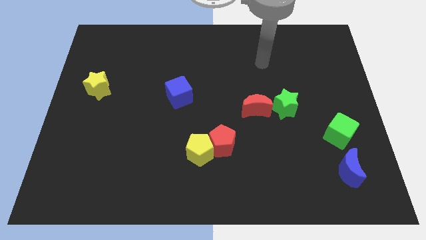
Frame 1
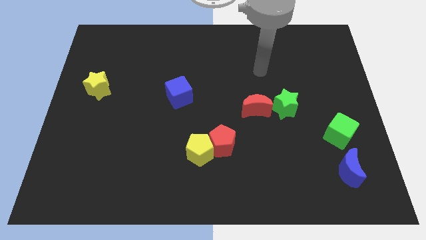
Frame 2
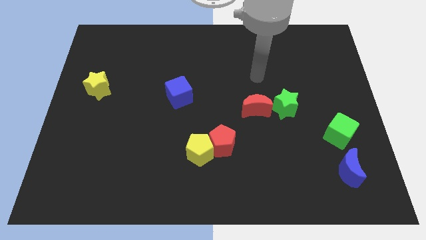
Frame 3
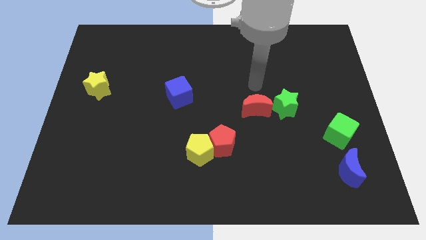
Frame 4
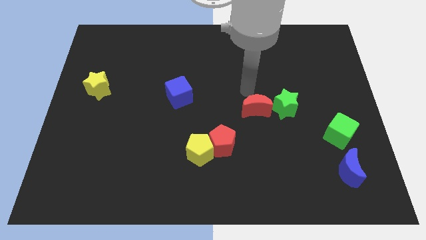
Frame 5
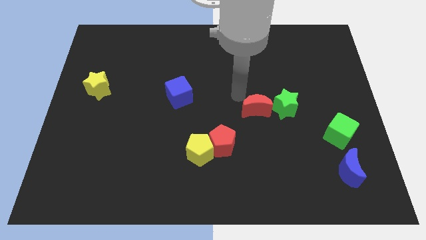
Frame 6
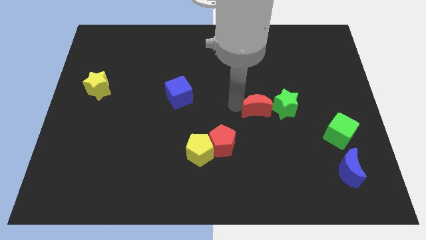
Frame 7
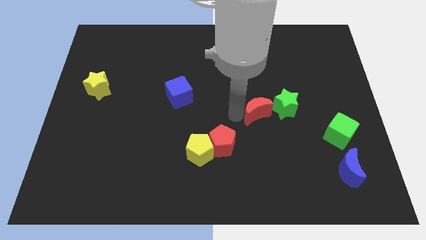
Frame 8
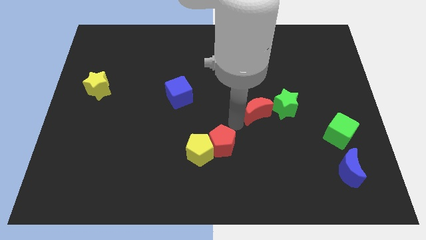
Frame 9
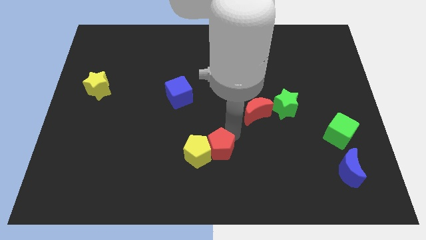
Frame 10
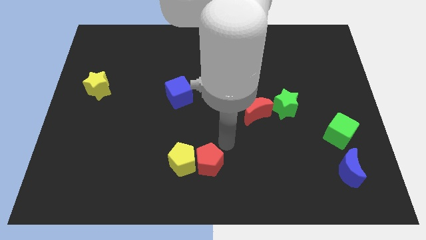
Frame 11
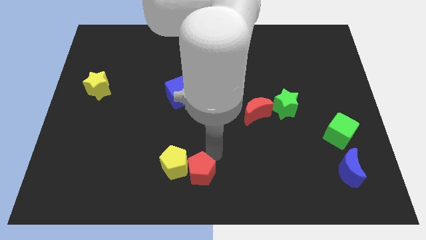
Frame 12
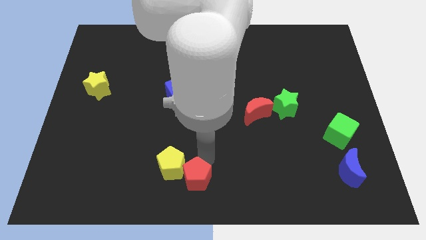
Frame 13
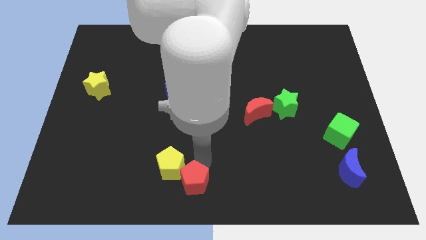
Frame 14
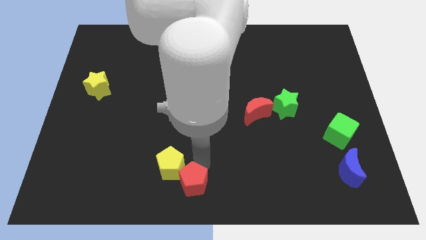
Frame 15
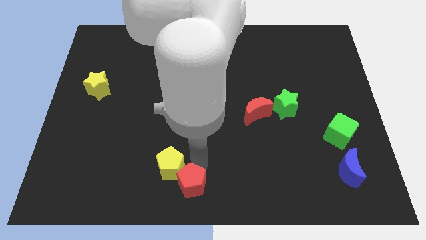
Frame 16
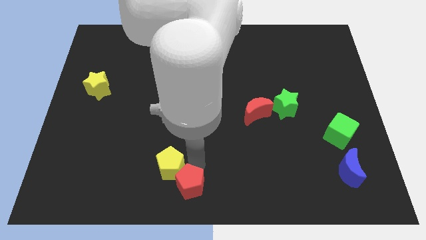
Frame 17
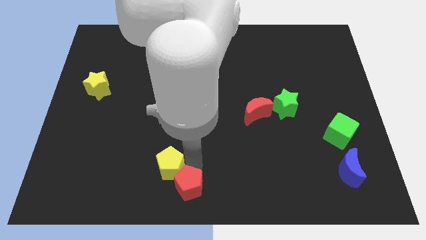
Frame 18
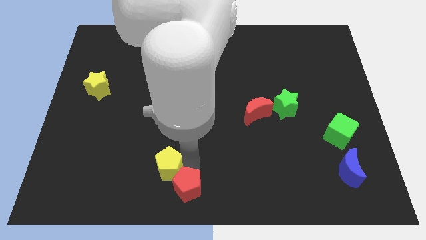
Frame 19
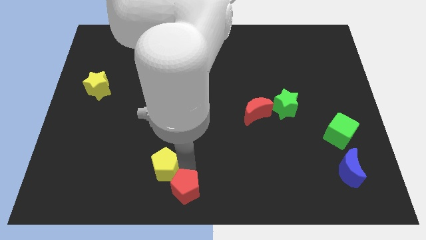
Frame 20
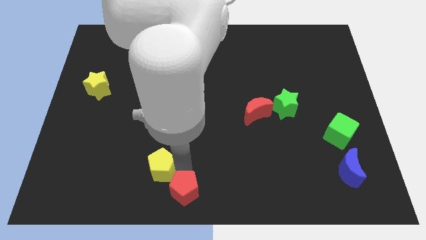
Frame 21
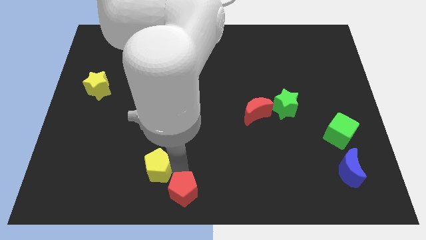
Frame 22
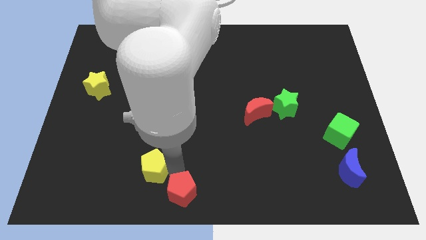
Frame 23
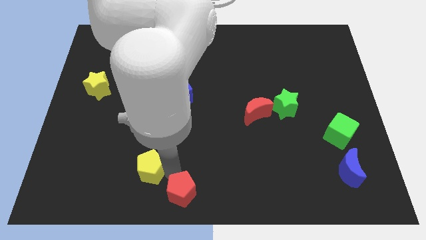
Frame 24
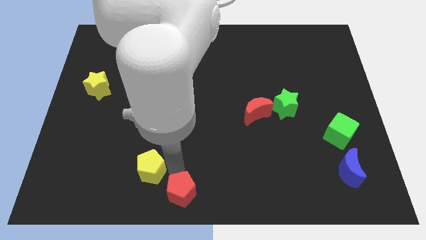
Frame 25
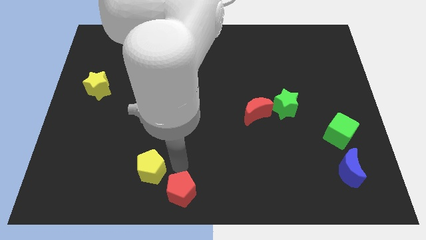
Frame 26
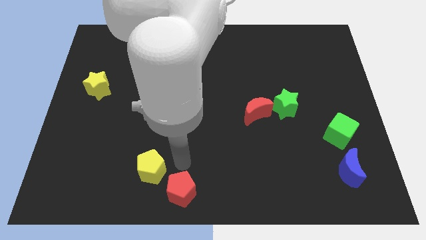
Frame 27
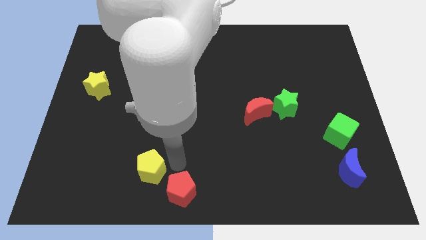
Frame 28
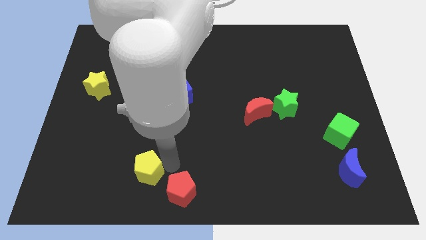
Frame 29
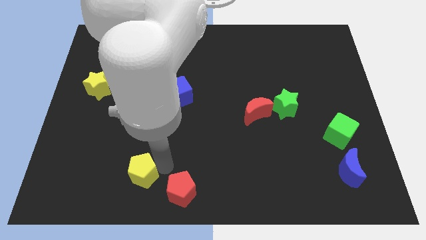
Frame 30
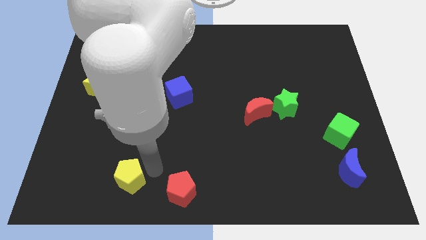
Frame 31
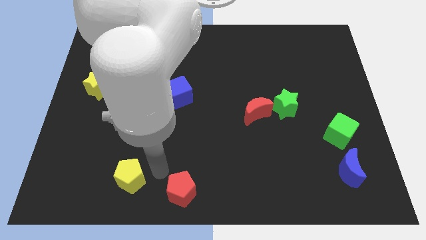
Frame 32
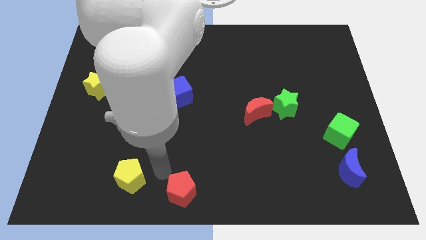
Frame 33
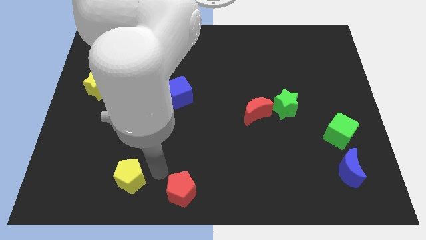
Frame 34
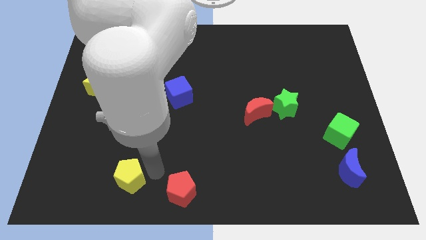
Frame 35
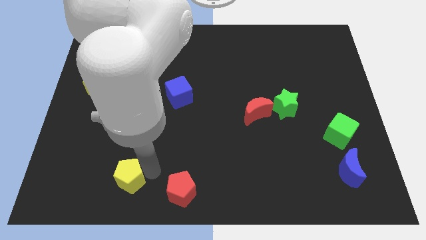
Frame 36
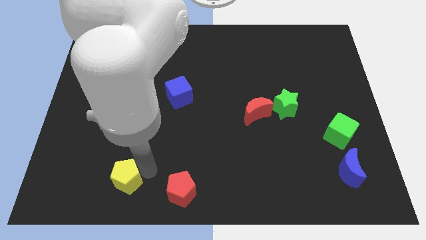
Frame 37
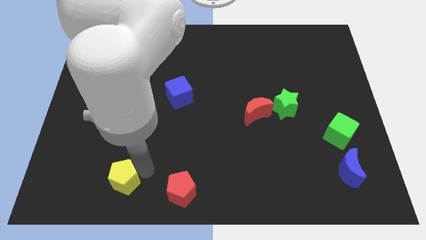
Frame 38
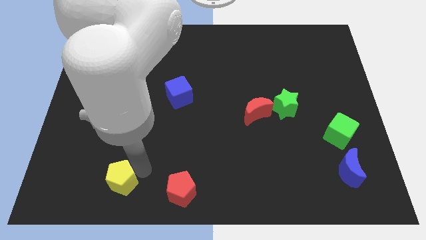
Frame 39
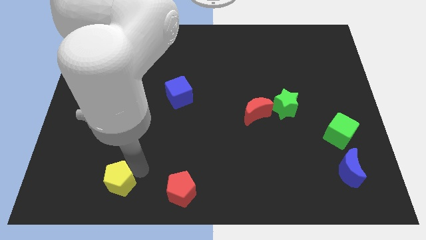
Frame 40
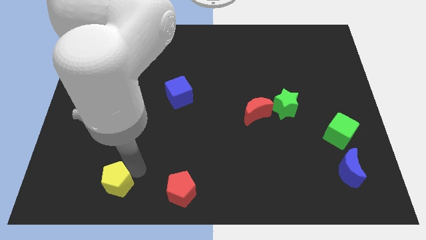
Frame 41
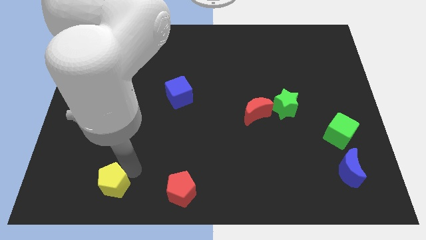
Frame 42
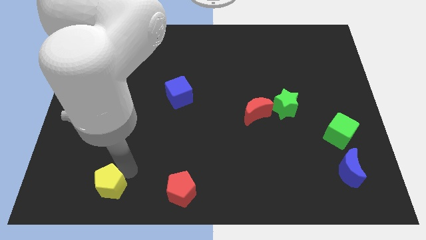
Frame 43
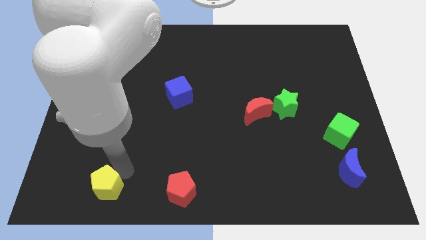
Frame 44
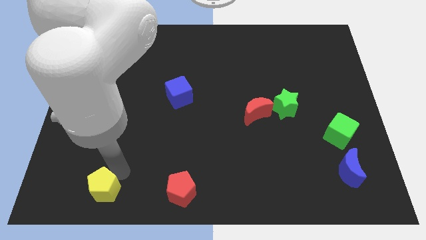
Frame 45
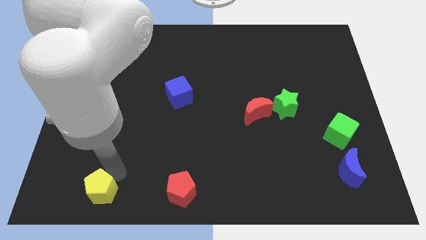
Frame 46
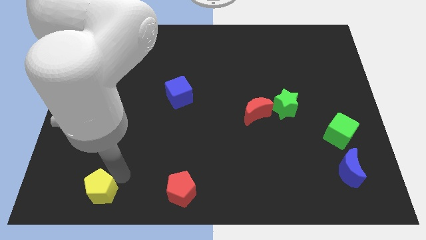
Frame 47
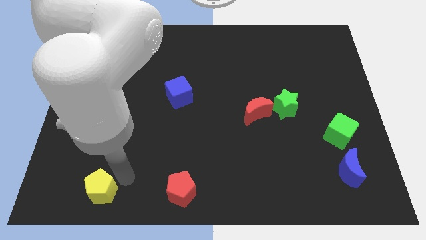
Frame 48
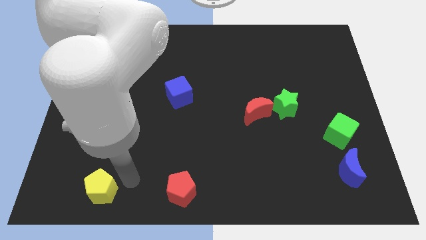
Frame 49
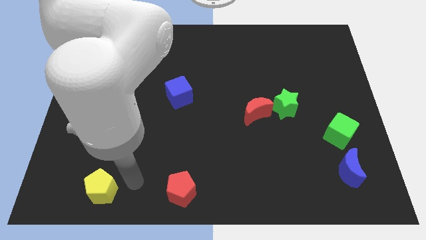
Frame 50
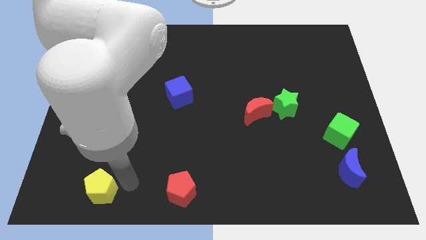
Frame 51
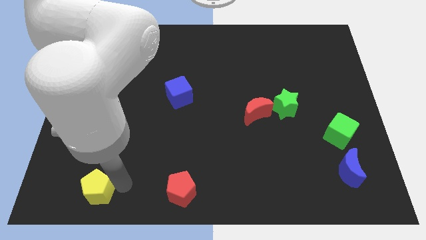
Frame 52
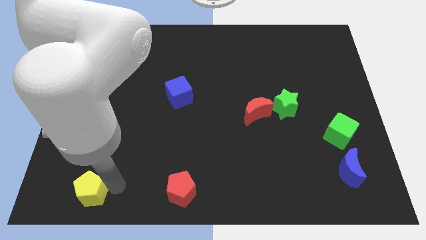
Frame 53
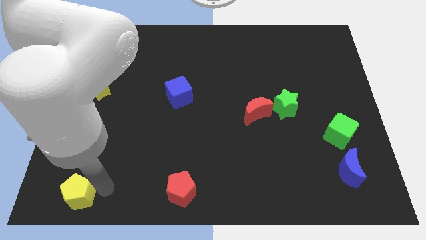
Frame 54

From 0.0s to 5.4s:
move the yellow pentagon to the bottom left of the board

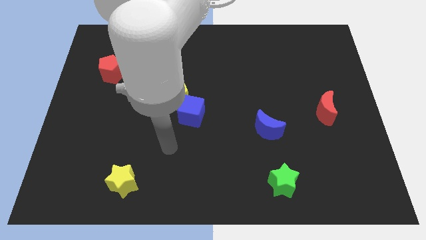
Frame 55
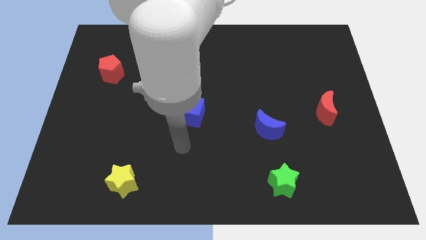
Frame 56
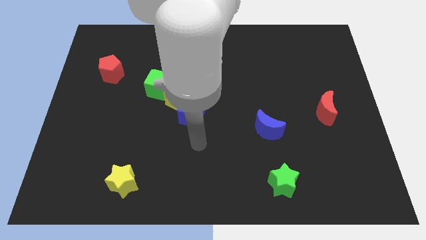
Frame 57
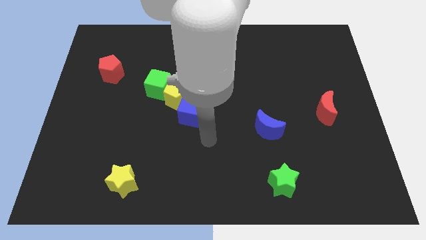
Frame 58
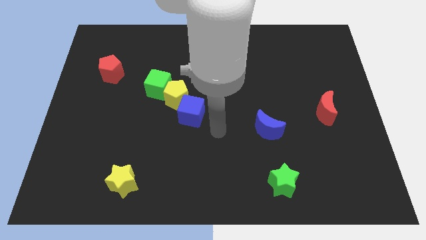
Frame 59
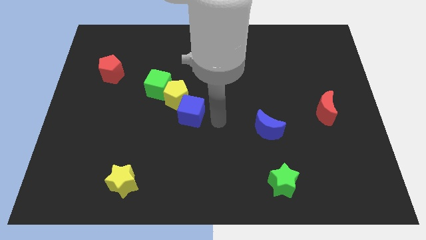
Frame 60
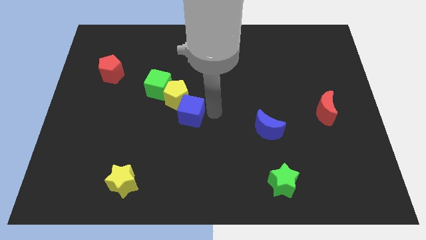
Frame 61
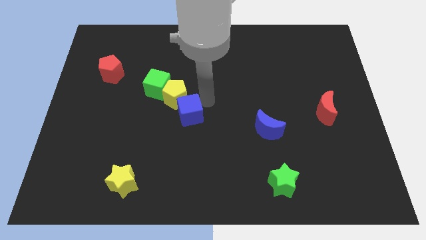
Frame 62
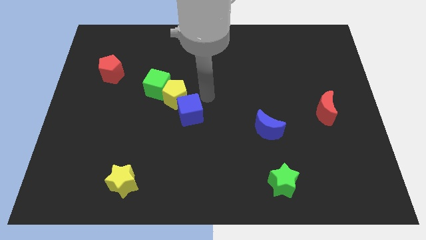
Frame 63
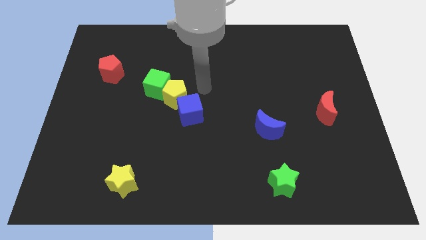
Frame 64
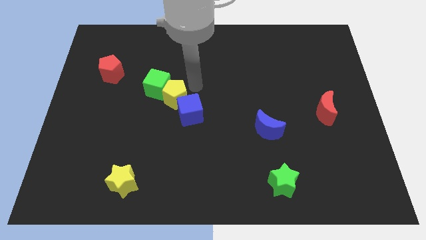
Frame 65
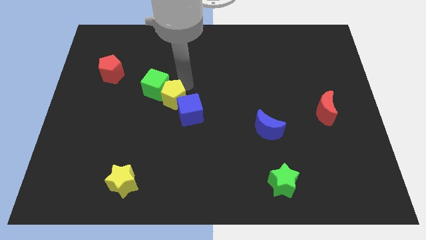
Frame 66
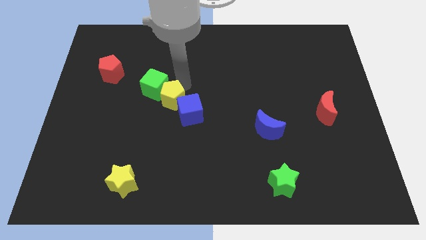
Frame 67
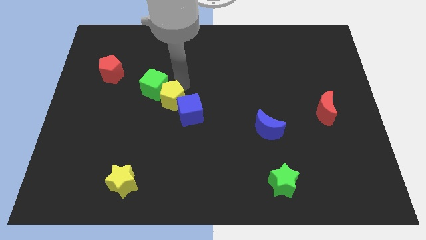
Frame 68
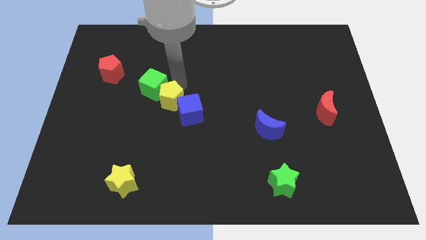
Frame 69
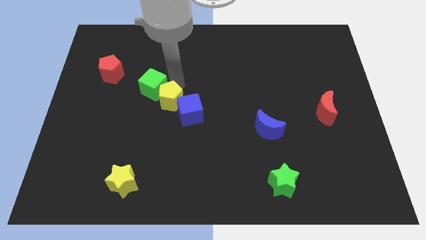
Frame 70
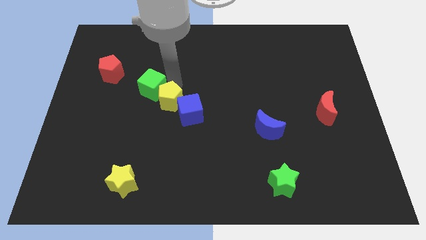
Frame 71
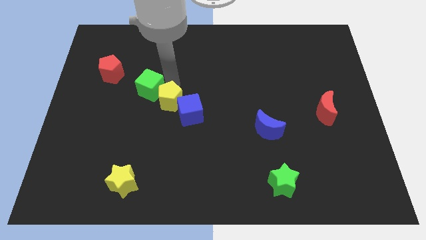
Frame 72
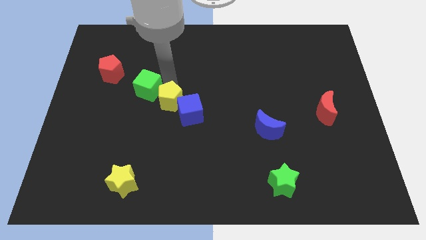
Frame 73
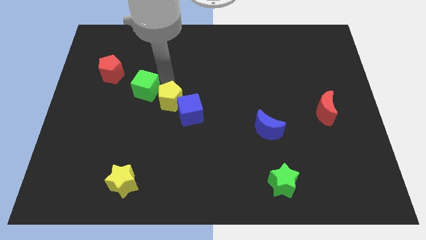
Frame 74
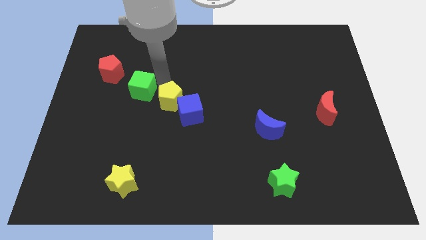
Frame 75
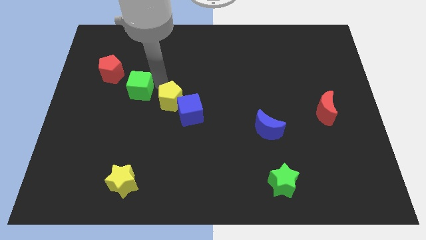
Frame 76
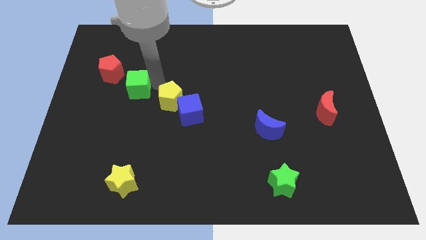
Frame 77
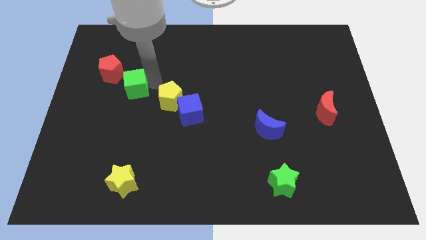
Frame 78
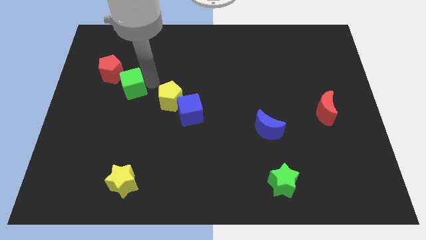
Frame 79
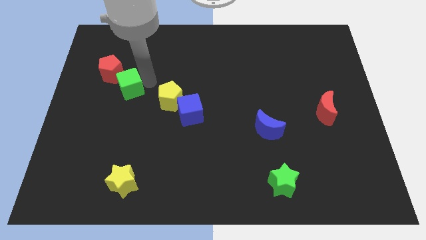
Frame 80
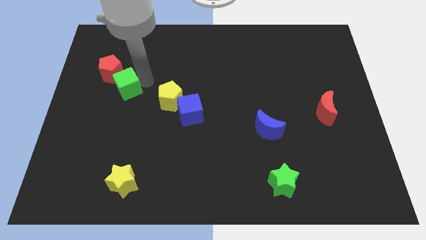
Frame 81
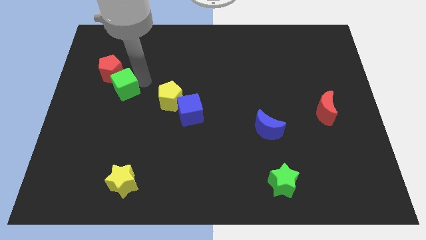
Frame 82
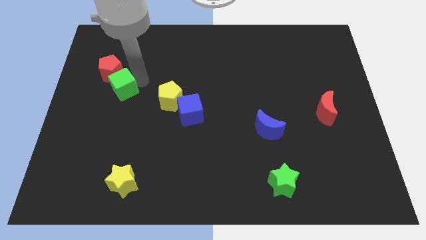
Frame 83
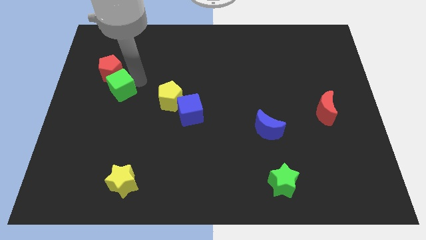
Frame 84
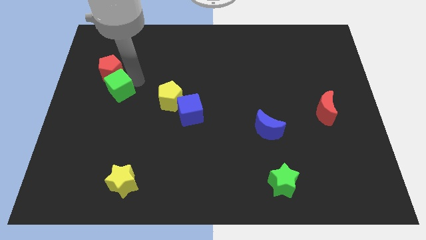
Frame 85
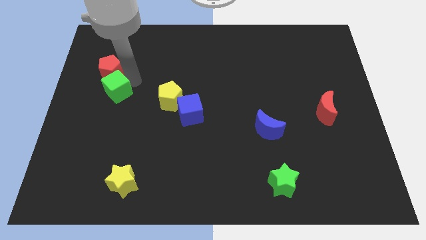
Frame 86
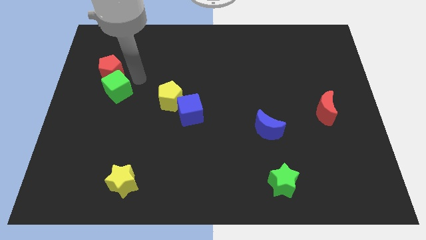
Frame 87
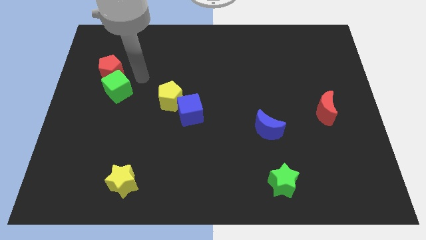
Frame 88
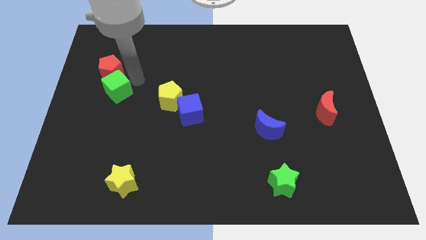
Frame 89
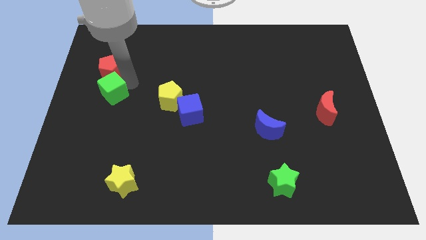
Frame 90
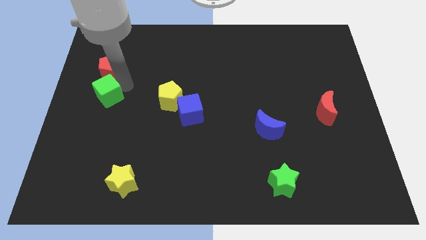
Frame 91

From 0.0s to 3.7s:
put the green cube to the left side of the board
